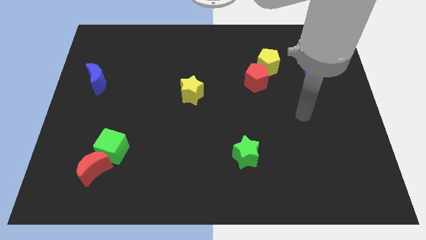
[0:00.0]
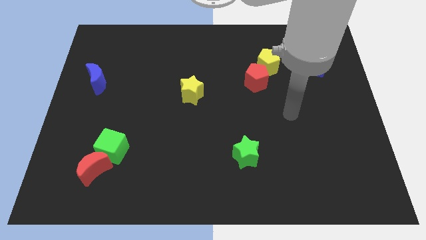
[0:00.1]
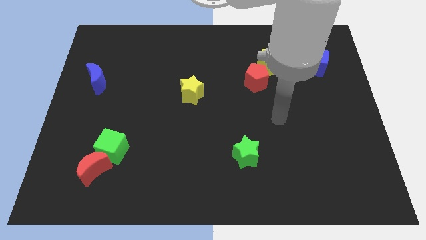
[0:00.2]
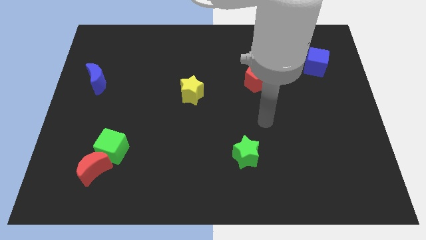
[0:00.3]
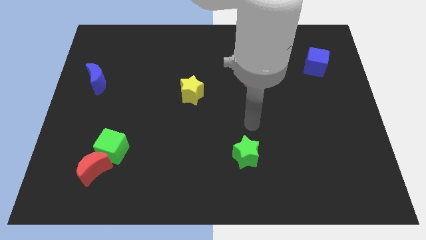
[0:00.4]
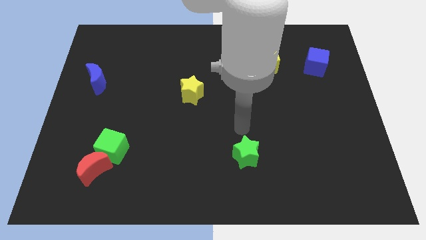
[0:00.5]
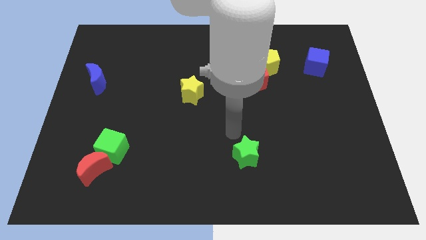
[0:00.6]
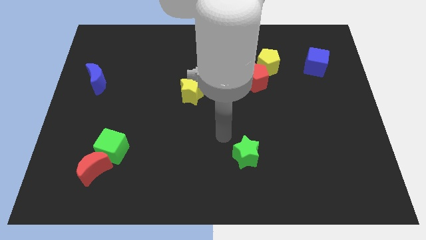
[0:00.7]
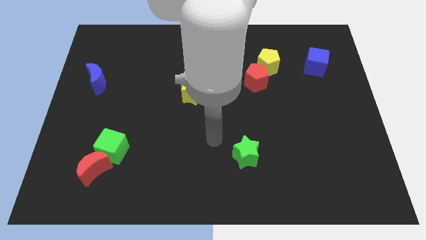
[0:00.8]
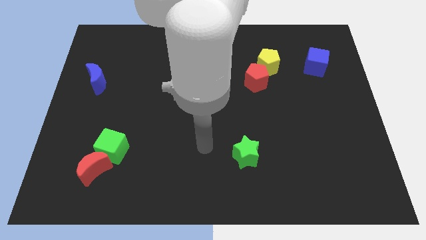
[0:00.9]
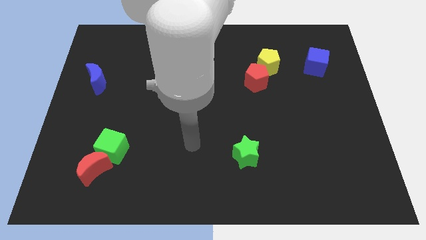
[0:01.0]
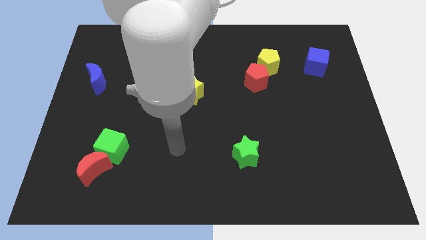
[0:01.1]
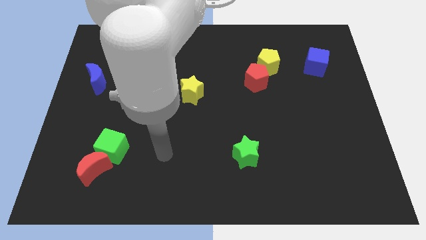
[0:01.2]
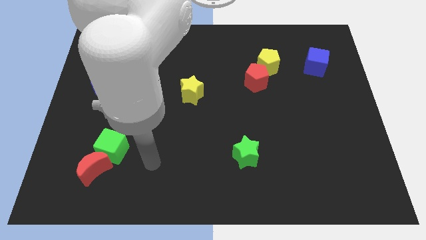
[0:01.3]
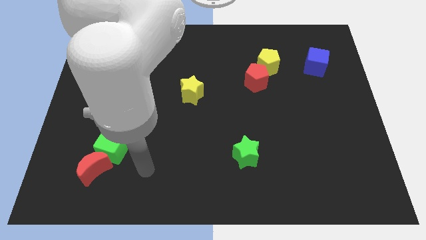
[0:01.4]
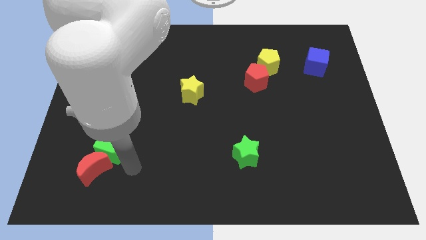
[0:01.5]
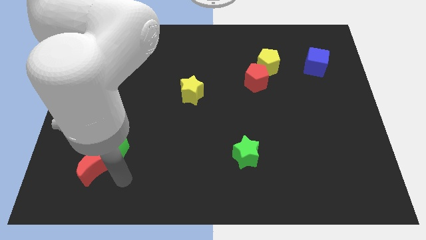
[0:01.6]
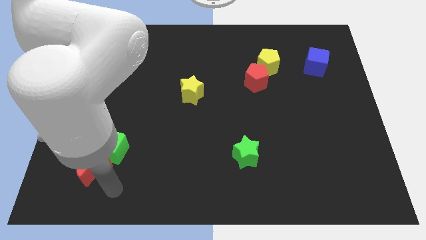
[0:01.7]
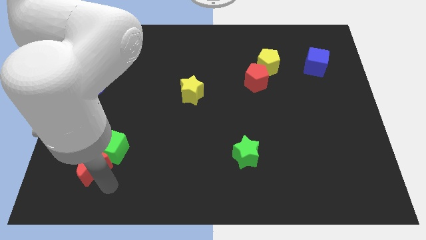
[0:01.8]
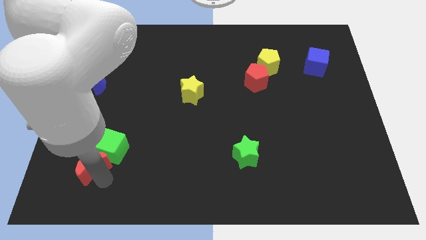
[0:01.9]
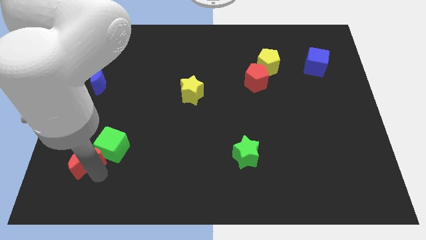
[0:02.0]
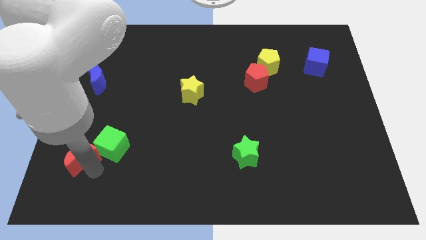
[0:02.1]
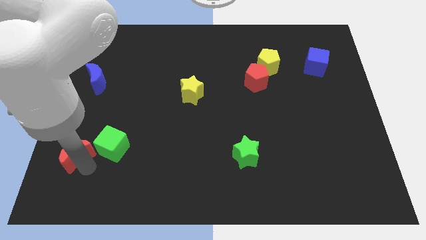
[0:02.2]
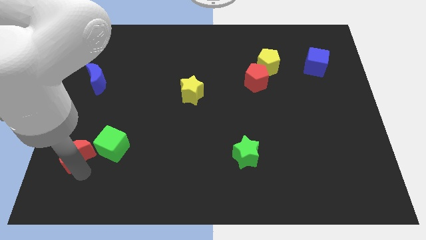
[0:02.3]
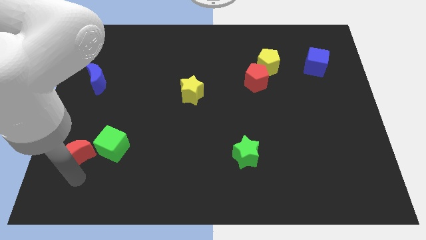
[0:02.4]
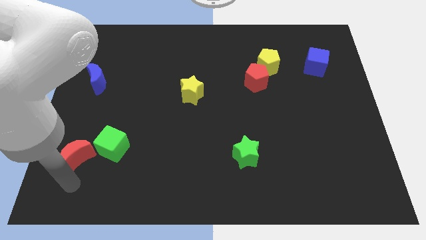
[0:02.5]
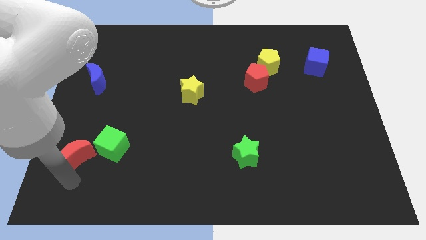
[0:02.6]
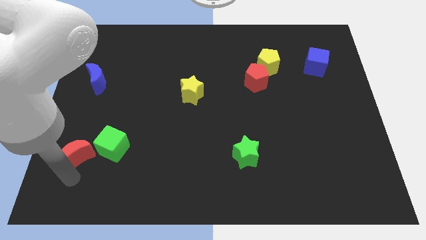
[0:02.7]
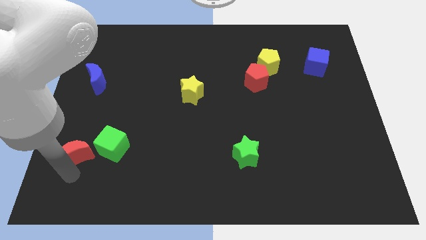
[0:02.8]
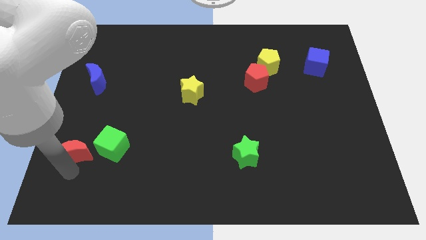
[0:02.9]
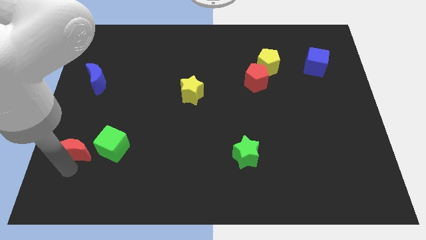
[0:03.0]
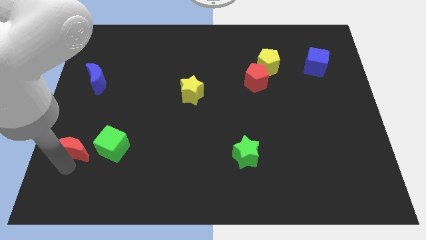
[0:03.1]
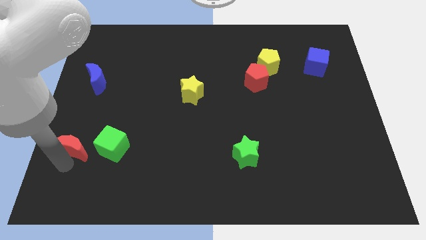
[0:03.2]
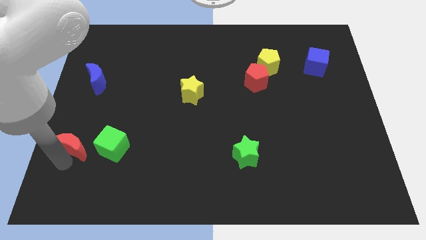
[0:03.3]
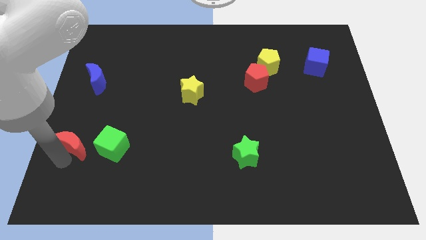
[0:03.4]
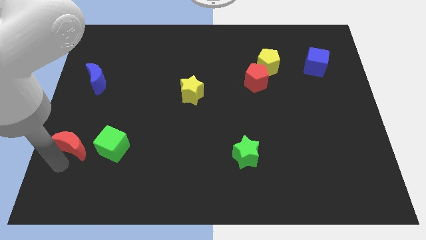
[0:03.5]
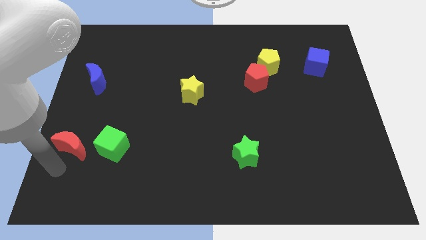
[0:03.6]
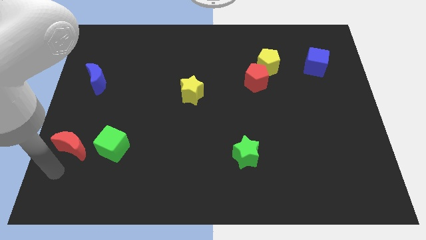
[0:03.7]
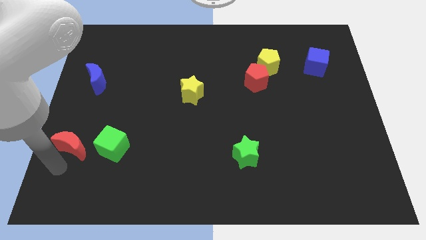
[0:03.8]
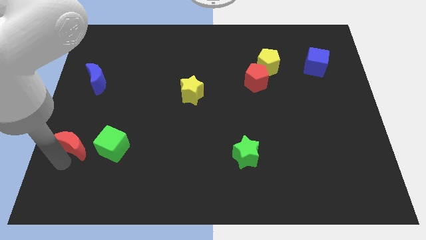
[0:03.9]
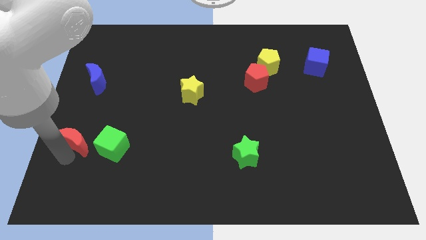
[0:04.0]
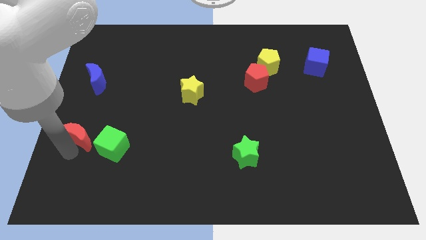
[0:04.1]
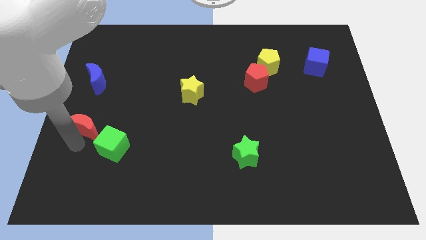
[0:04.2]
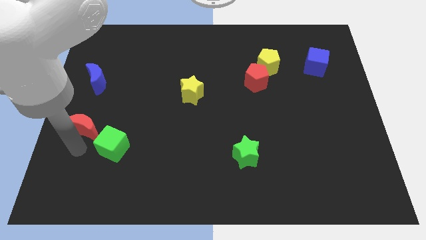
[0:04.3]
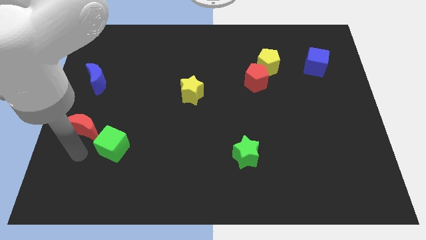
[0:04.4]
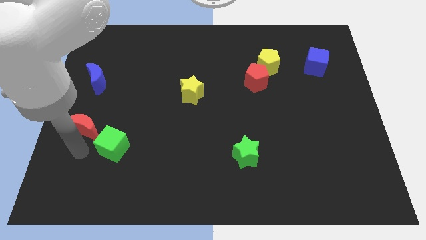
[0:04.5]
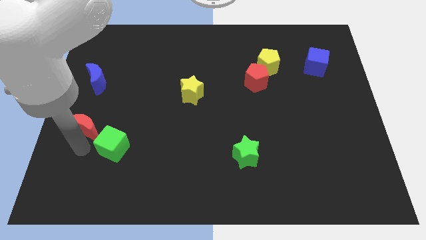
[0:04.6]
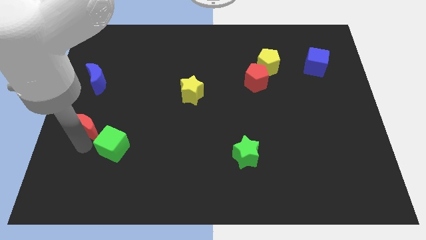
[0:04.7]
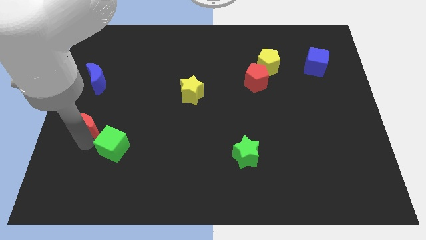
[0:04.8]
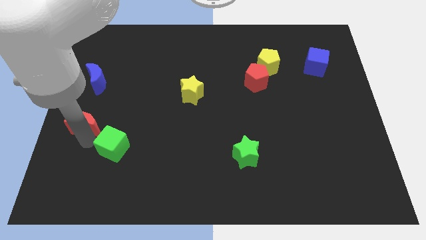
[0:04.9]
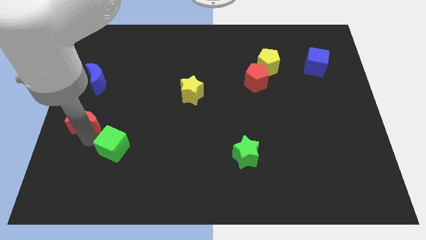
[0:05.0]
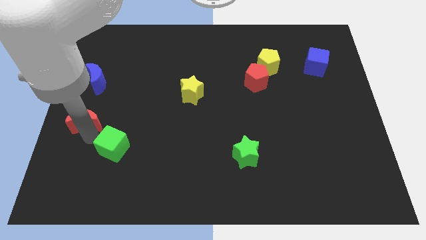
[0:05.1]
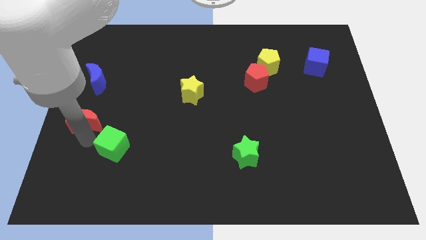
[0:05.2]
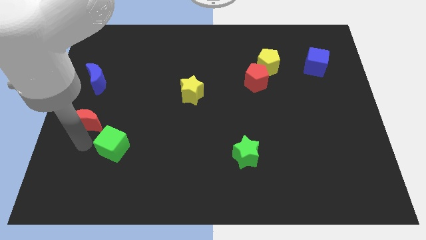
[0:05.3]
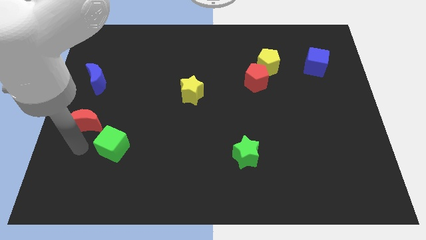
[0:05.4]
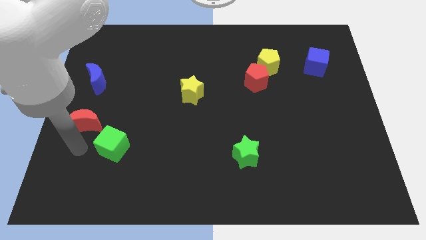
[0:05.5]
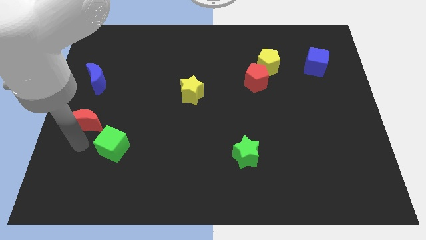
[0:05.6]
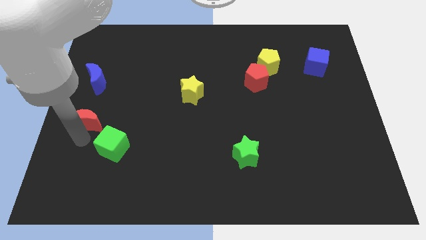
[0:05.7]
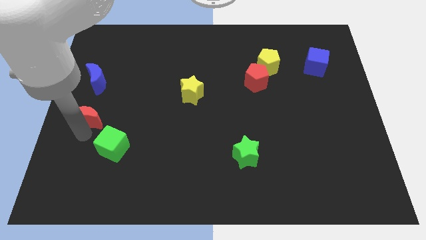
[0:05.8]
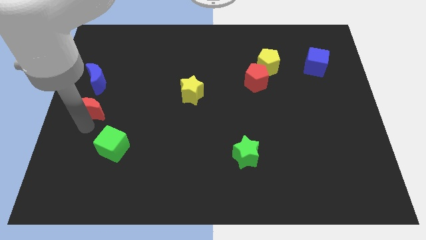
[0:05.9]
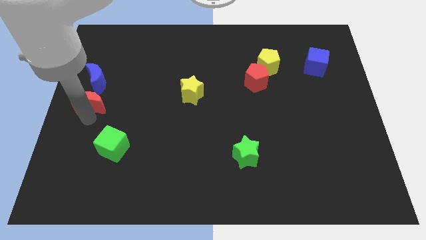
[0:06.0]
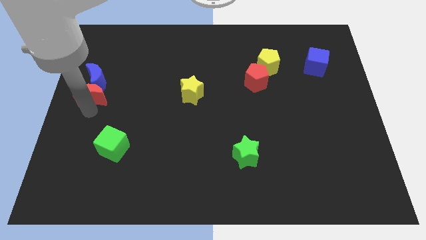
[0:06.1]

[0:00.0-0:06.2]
put the red moon towards the blue moon

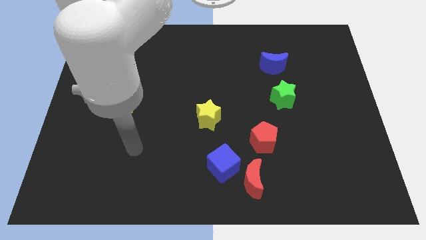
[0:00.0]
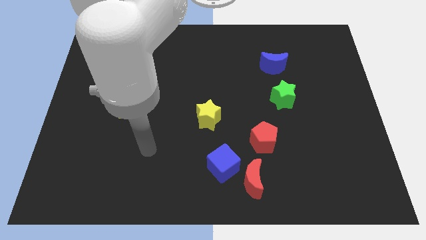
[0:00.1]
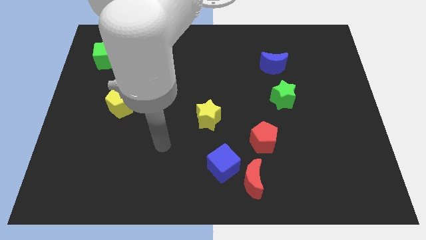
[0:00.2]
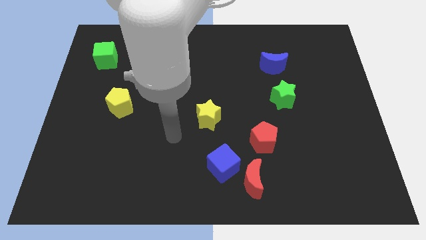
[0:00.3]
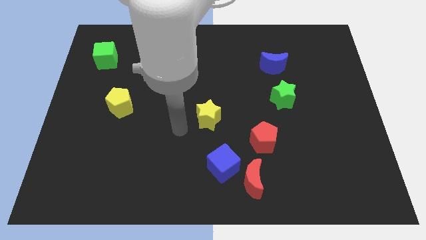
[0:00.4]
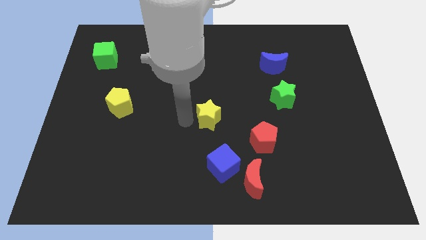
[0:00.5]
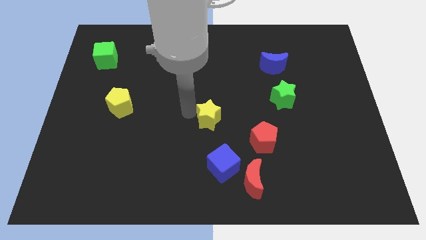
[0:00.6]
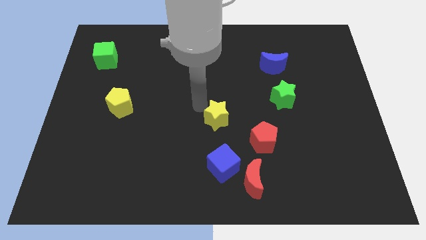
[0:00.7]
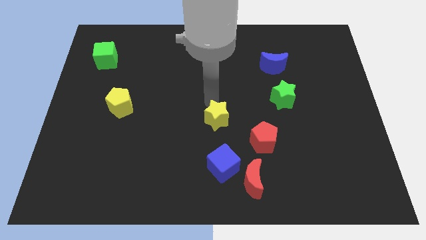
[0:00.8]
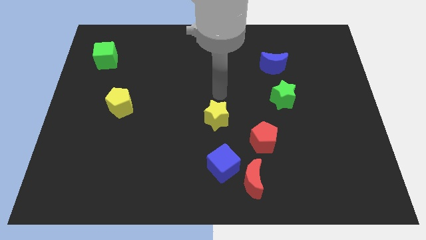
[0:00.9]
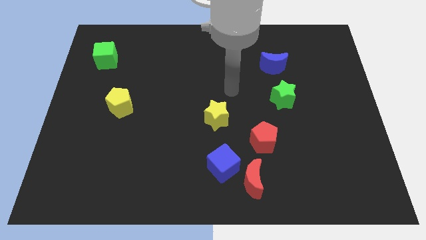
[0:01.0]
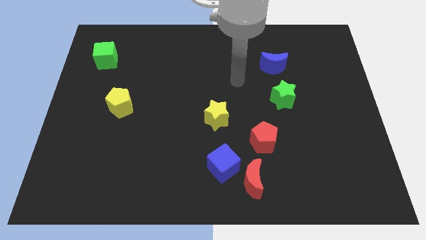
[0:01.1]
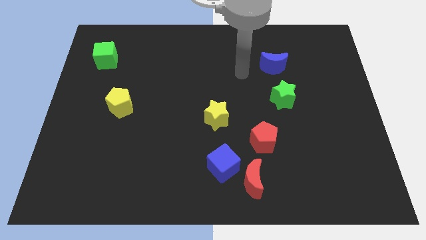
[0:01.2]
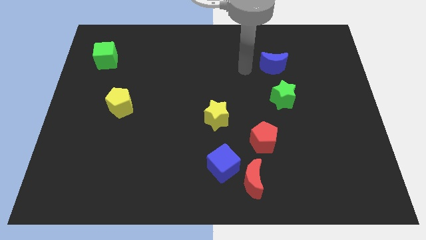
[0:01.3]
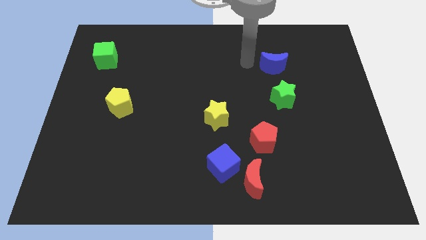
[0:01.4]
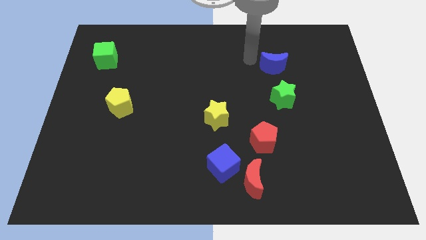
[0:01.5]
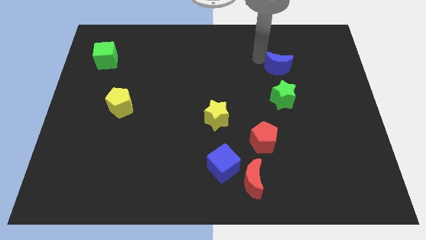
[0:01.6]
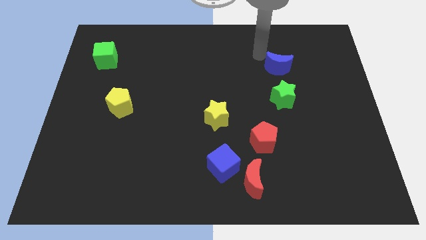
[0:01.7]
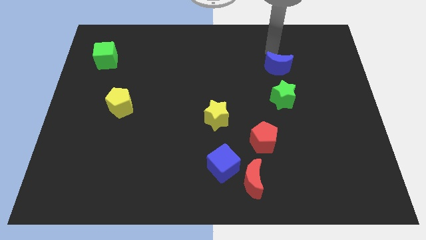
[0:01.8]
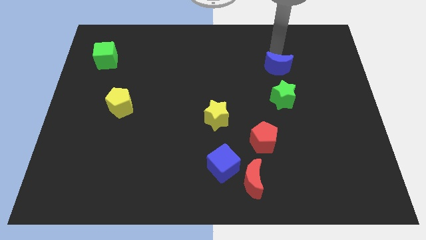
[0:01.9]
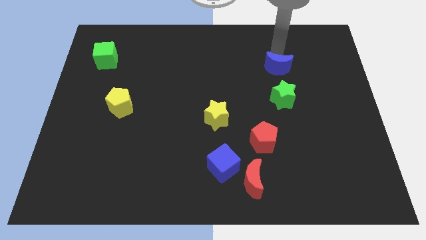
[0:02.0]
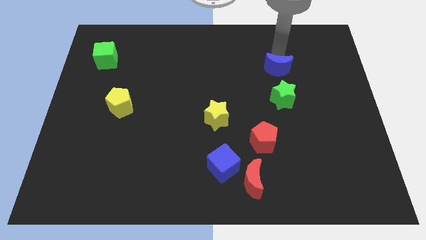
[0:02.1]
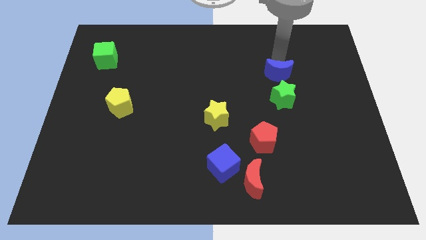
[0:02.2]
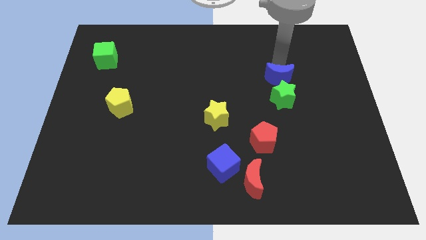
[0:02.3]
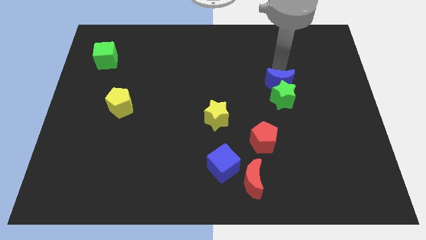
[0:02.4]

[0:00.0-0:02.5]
move the blue moon close to the green star
